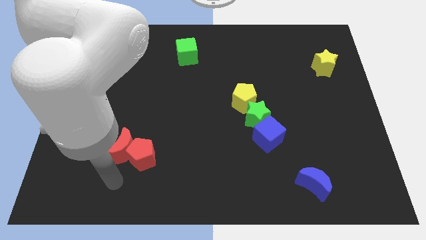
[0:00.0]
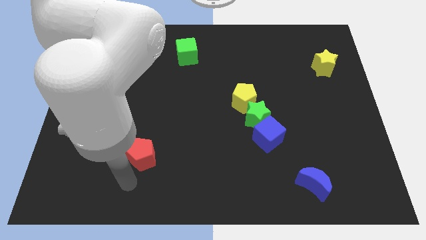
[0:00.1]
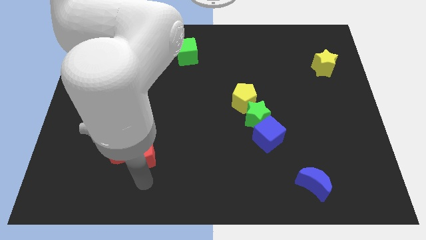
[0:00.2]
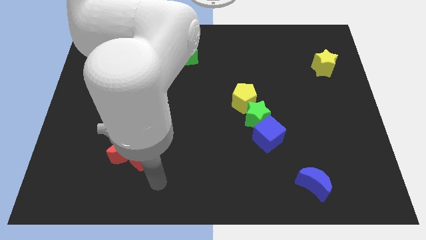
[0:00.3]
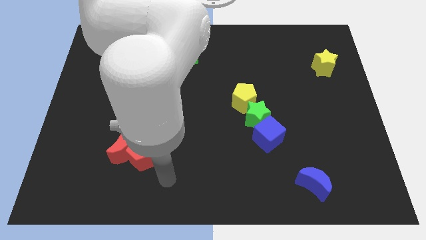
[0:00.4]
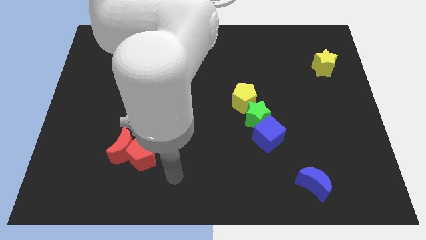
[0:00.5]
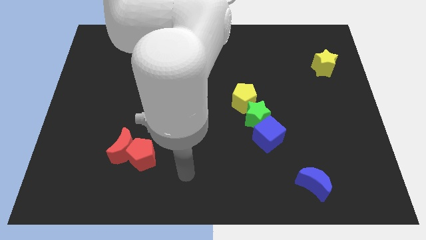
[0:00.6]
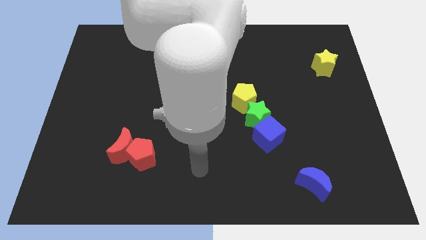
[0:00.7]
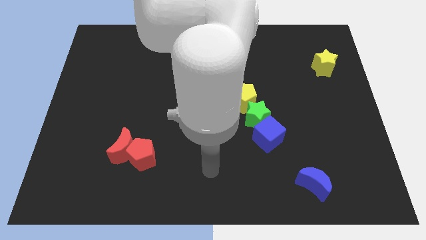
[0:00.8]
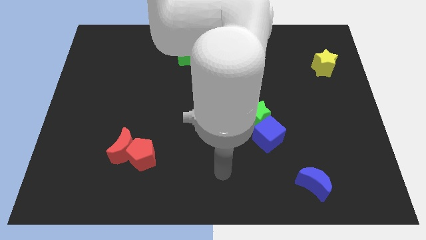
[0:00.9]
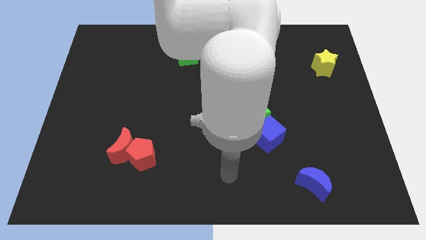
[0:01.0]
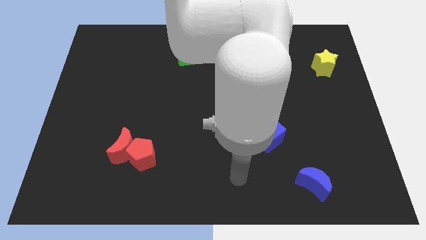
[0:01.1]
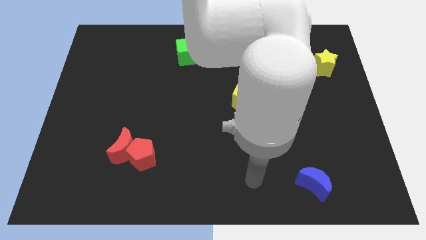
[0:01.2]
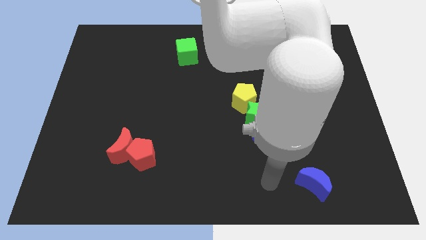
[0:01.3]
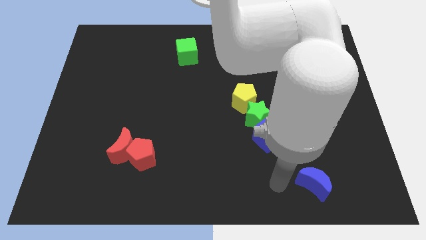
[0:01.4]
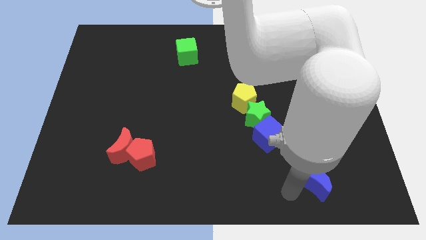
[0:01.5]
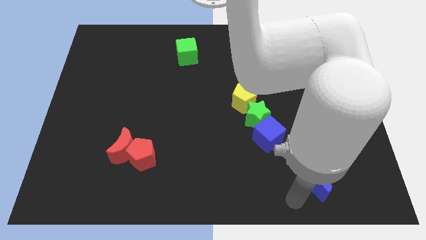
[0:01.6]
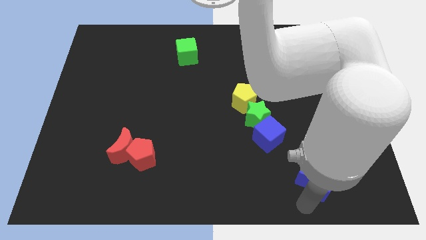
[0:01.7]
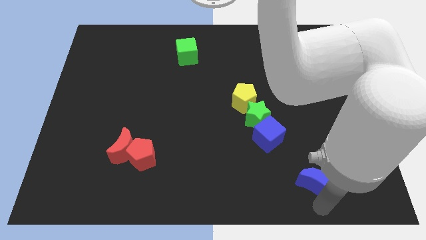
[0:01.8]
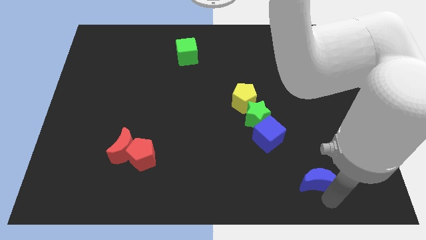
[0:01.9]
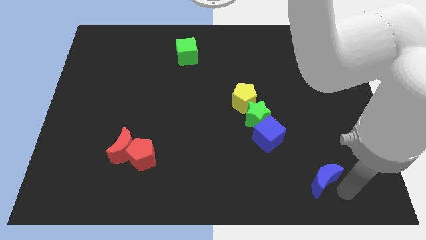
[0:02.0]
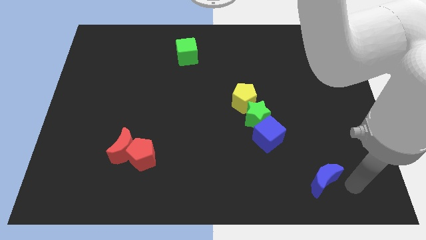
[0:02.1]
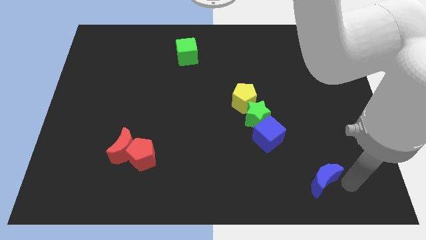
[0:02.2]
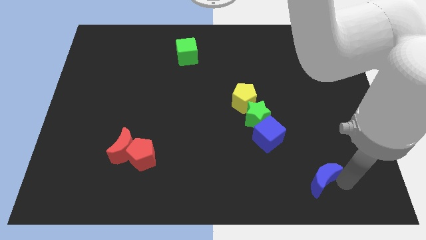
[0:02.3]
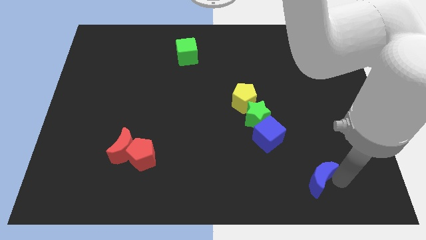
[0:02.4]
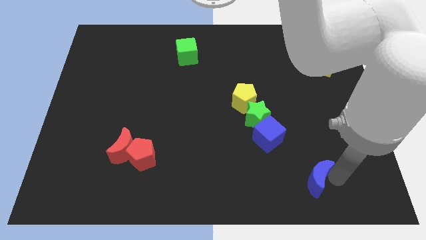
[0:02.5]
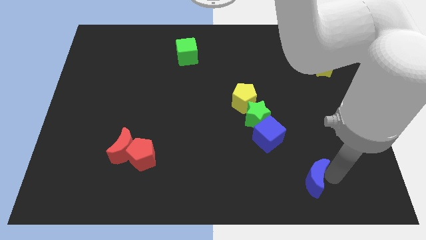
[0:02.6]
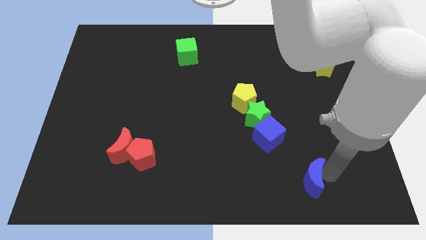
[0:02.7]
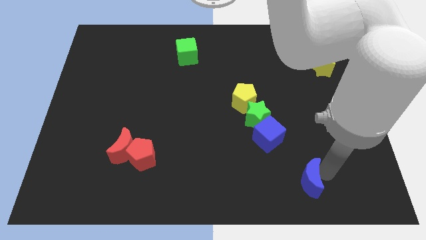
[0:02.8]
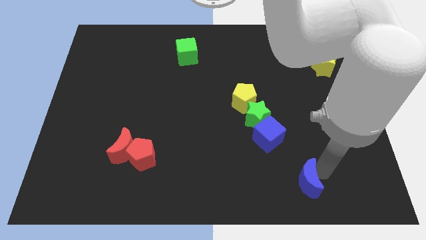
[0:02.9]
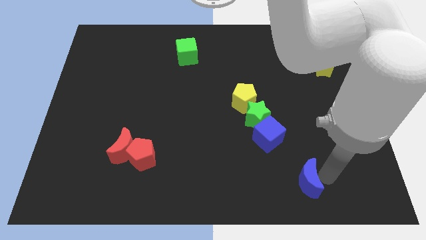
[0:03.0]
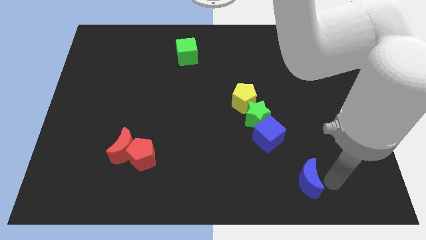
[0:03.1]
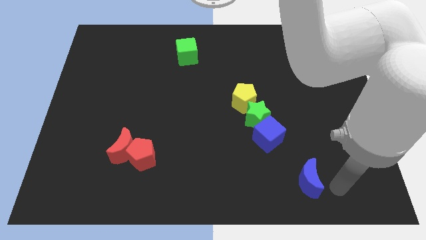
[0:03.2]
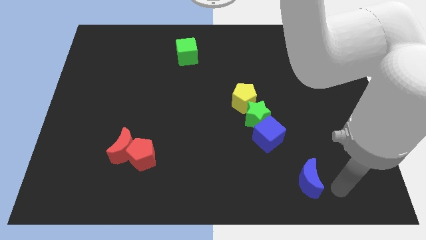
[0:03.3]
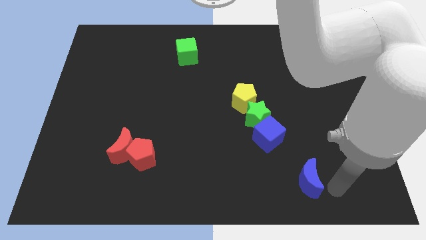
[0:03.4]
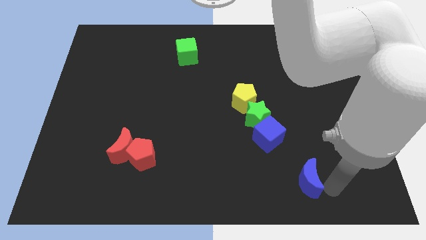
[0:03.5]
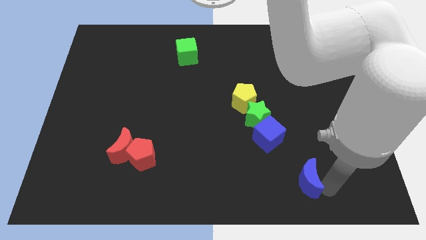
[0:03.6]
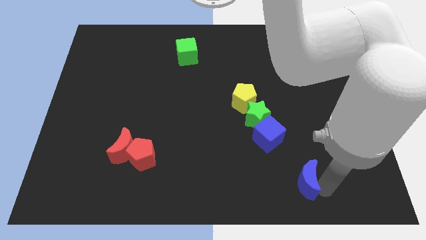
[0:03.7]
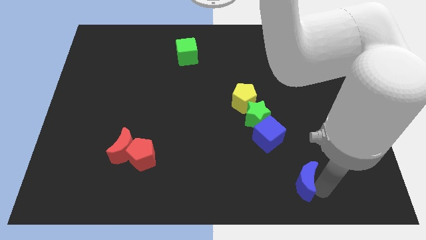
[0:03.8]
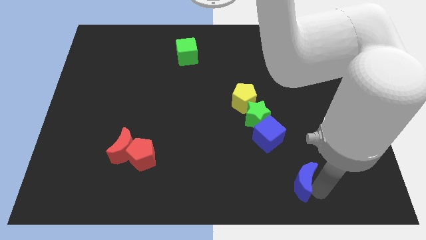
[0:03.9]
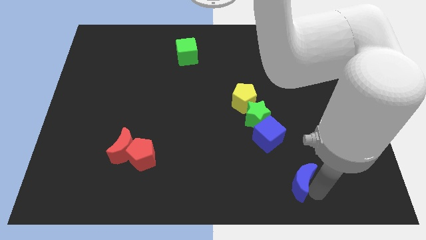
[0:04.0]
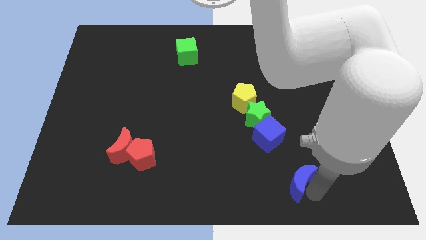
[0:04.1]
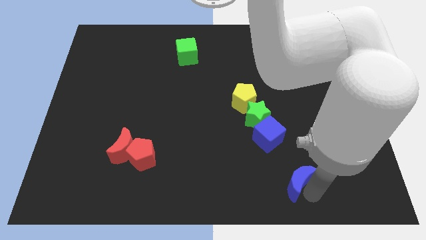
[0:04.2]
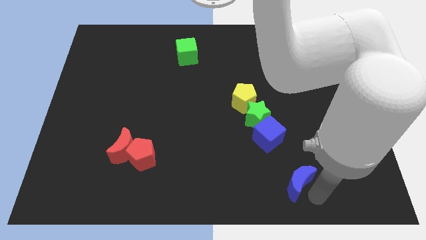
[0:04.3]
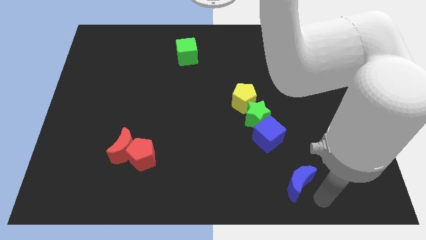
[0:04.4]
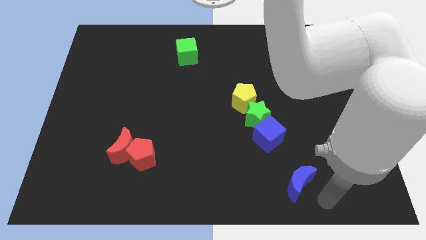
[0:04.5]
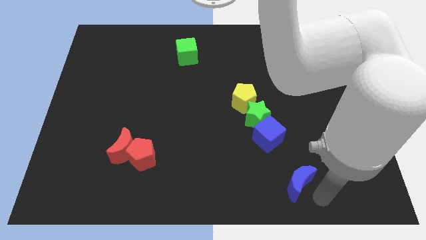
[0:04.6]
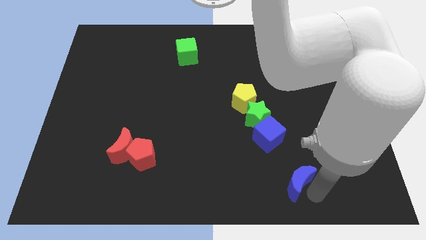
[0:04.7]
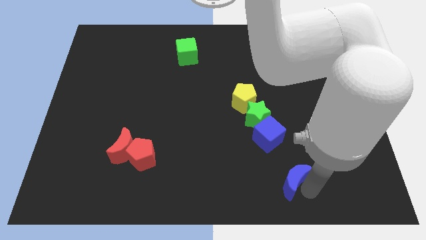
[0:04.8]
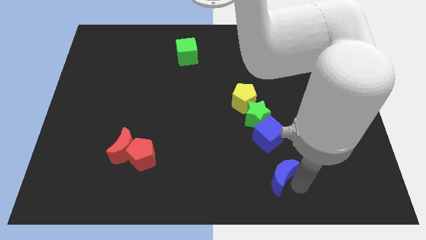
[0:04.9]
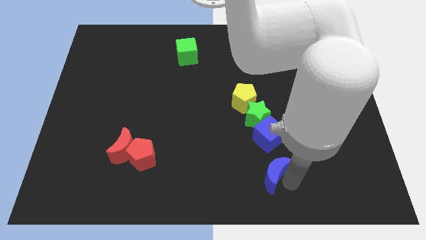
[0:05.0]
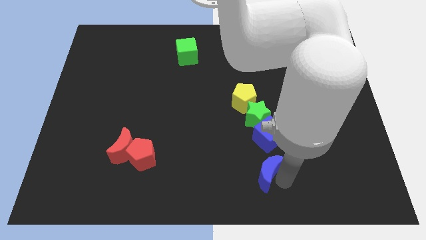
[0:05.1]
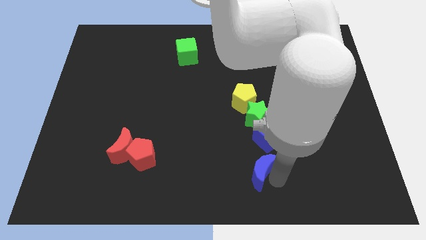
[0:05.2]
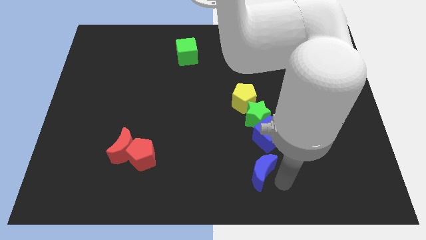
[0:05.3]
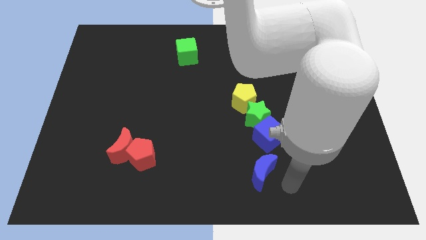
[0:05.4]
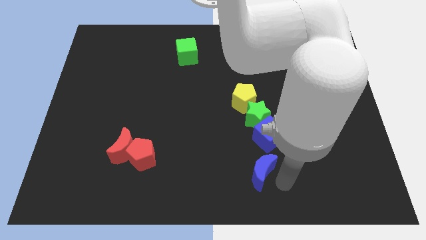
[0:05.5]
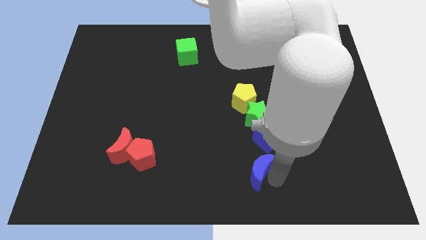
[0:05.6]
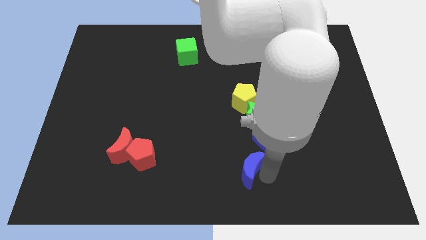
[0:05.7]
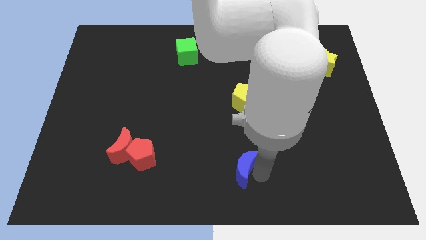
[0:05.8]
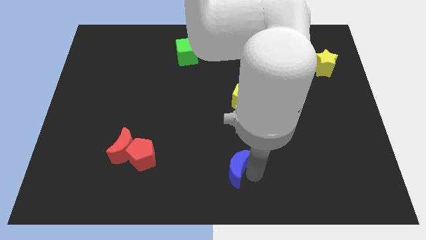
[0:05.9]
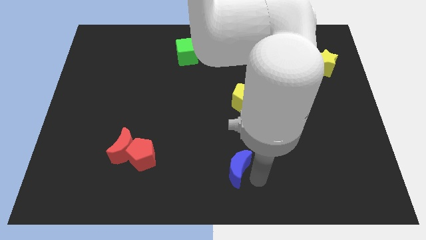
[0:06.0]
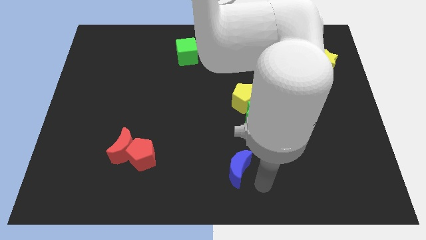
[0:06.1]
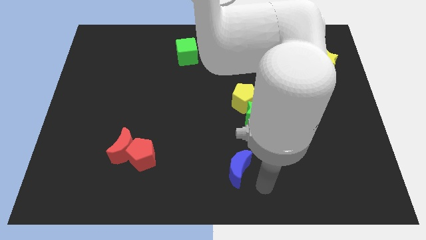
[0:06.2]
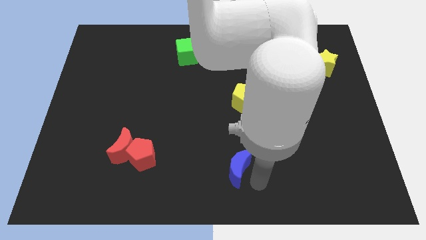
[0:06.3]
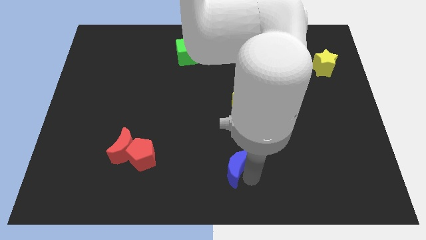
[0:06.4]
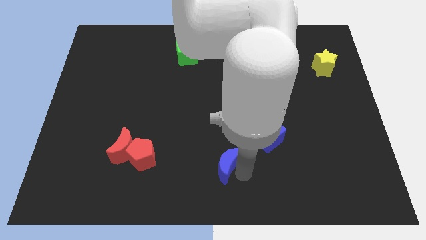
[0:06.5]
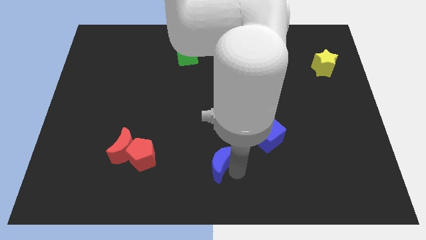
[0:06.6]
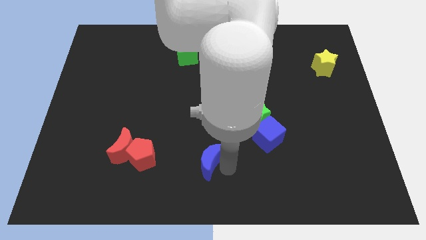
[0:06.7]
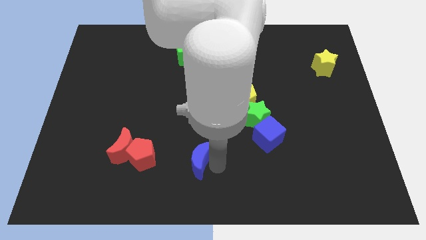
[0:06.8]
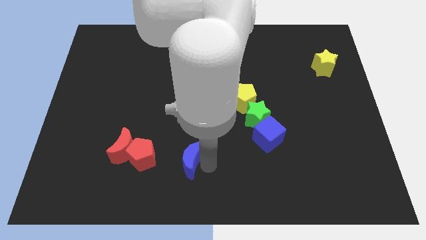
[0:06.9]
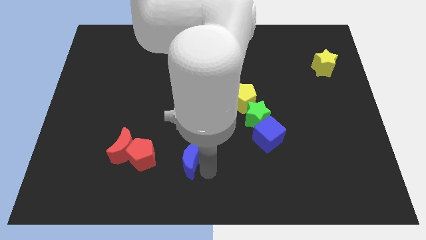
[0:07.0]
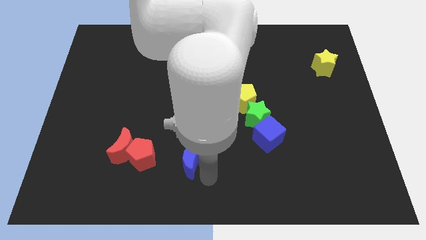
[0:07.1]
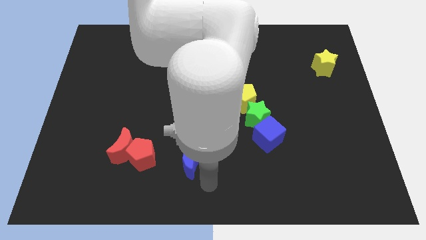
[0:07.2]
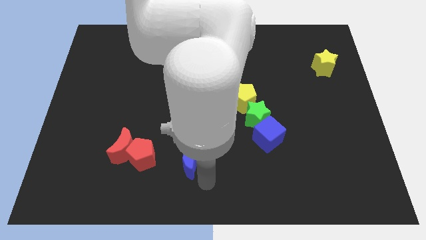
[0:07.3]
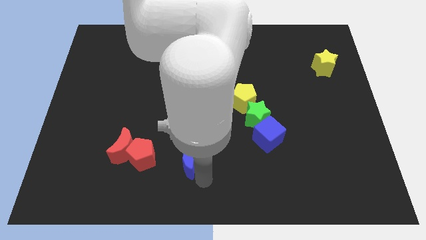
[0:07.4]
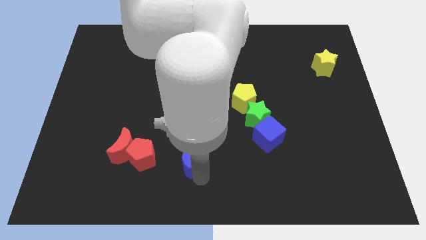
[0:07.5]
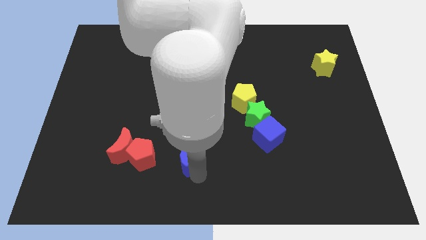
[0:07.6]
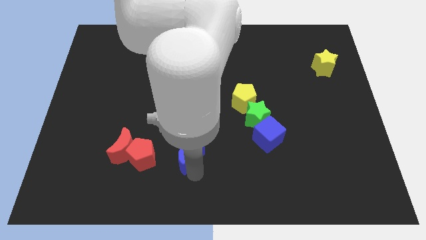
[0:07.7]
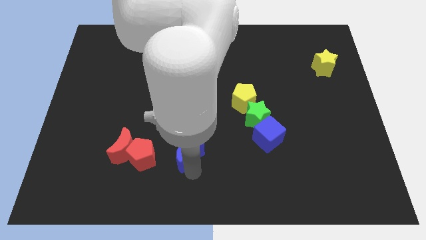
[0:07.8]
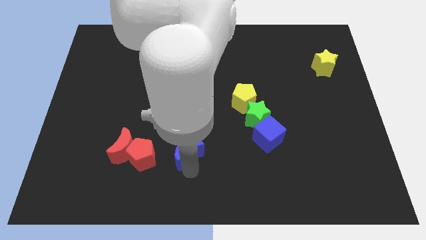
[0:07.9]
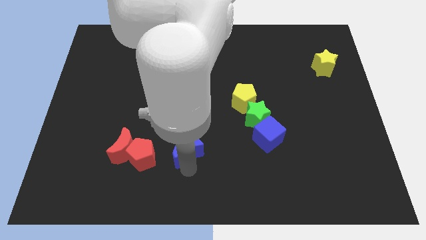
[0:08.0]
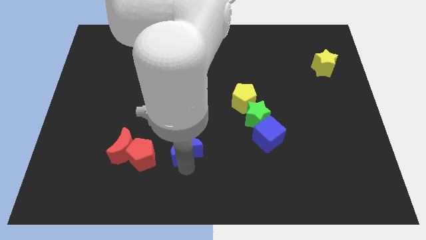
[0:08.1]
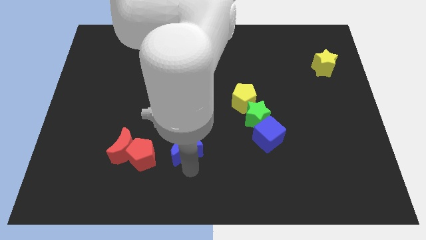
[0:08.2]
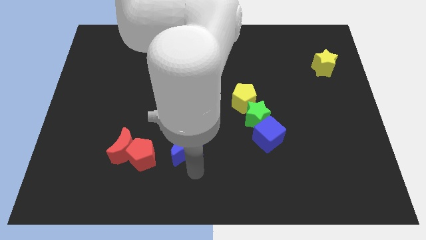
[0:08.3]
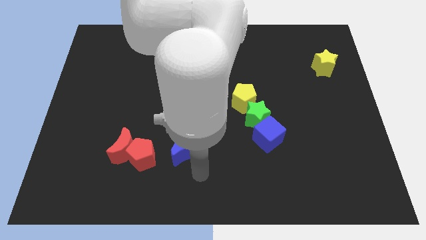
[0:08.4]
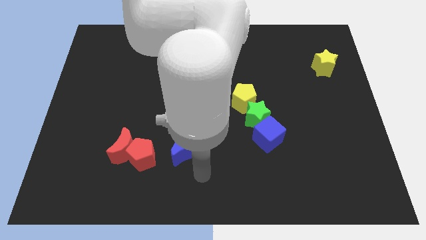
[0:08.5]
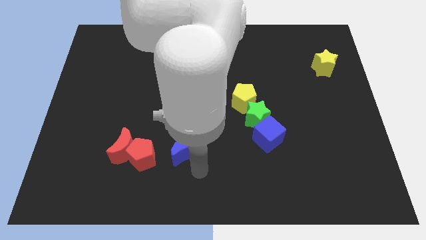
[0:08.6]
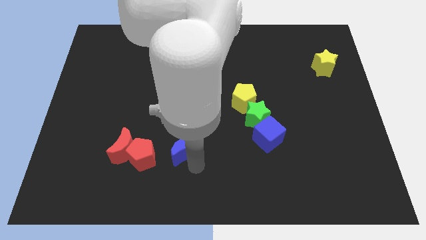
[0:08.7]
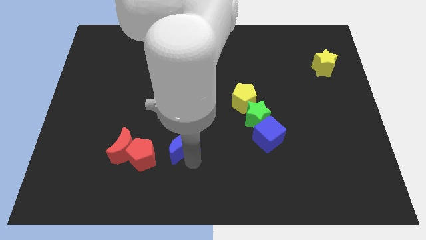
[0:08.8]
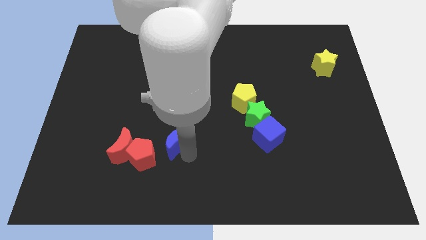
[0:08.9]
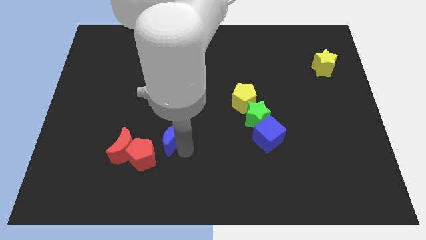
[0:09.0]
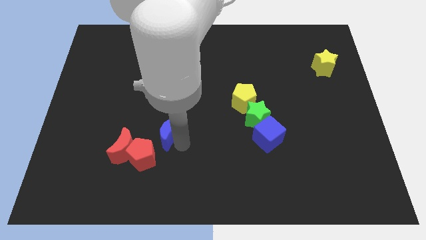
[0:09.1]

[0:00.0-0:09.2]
slide the blue moon diagonally up and to the right of the red moon
